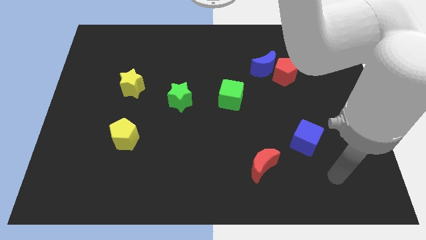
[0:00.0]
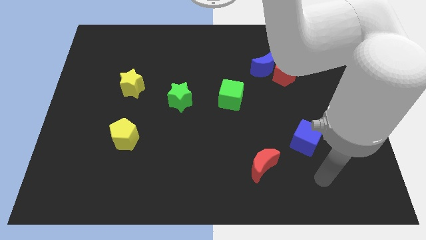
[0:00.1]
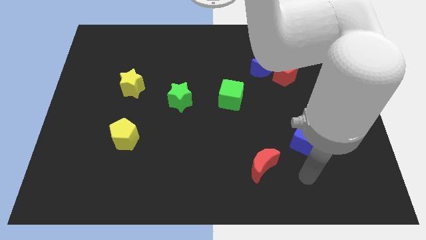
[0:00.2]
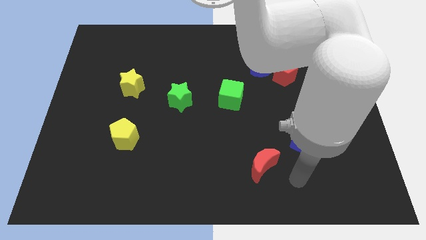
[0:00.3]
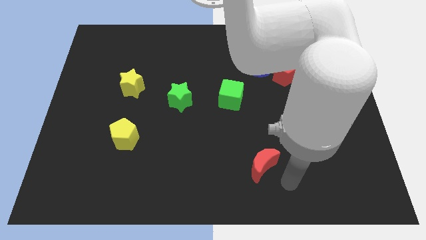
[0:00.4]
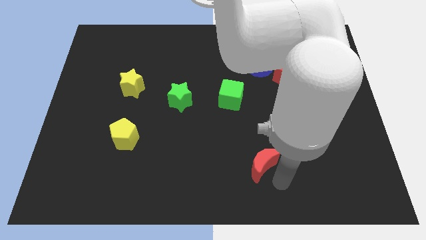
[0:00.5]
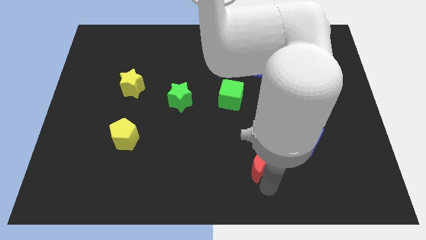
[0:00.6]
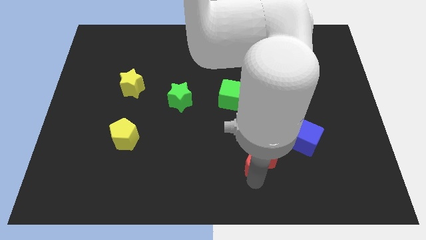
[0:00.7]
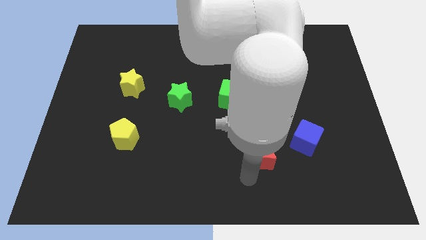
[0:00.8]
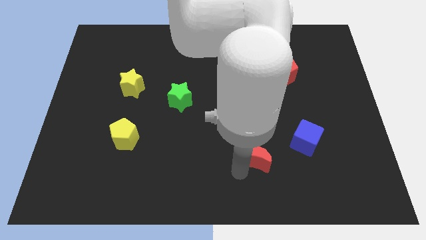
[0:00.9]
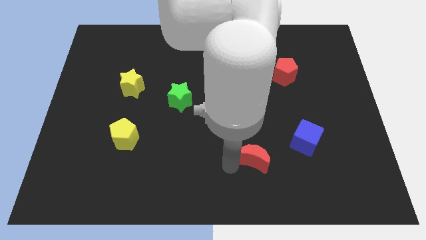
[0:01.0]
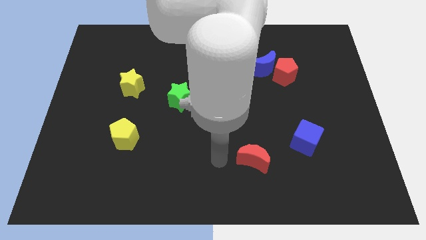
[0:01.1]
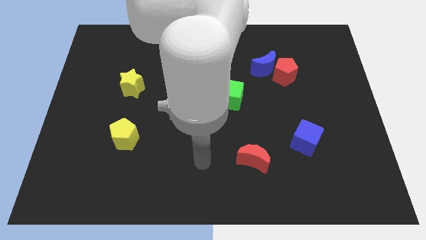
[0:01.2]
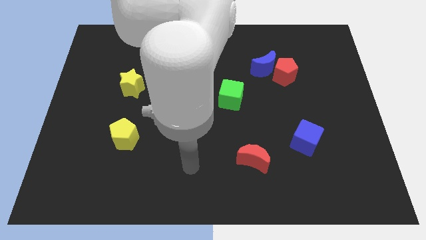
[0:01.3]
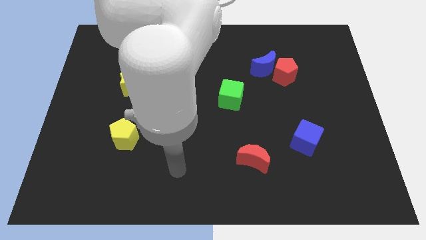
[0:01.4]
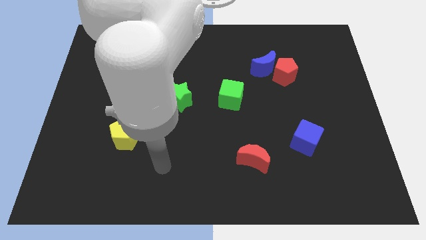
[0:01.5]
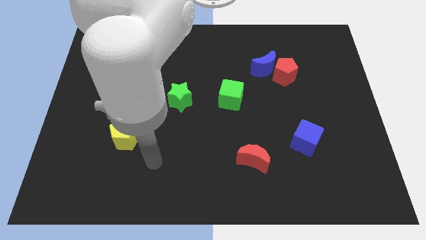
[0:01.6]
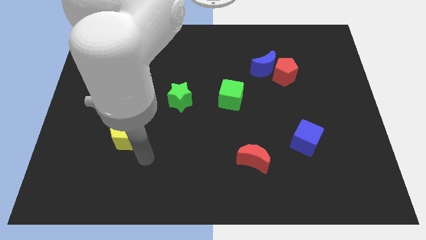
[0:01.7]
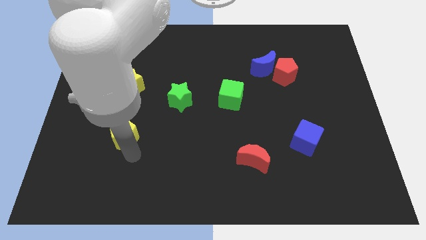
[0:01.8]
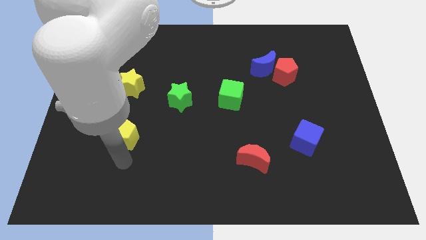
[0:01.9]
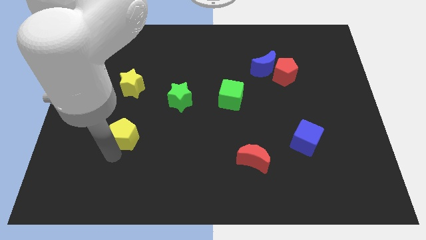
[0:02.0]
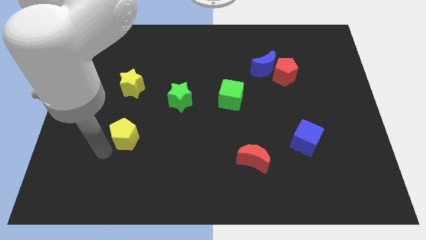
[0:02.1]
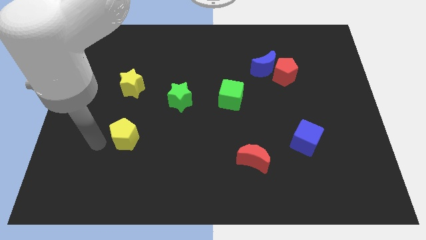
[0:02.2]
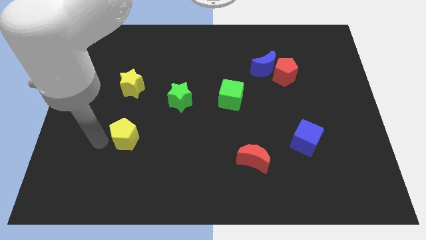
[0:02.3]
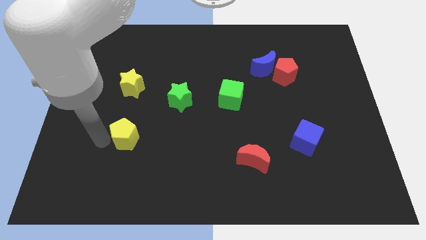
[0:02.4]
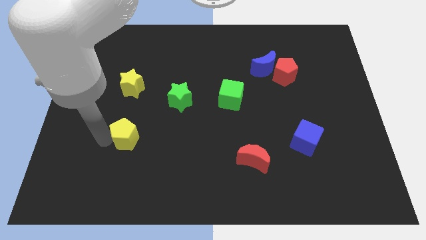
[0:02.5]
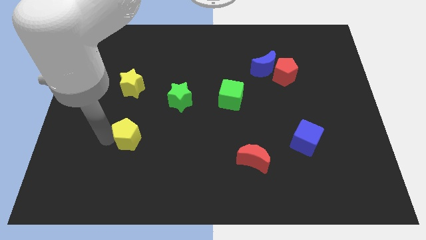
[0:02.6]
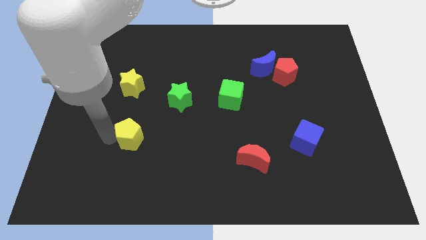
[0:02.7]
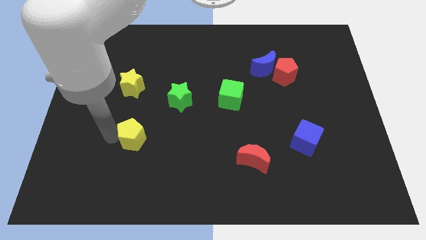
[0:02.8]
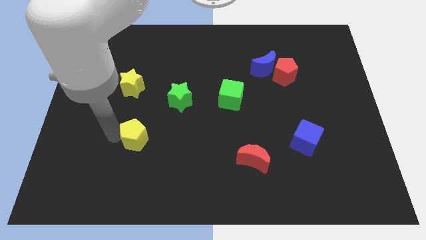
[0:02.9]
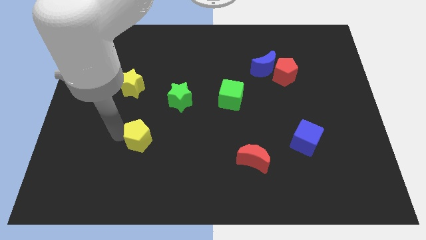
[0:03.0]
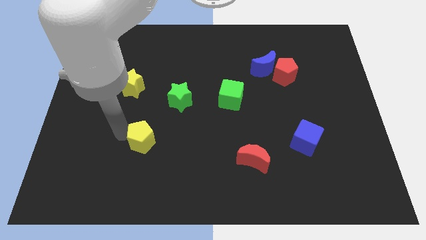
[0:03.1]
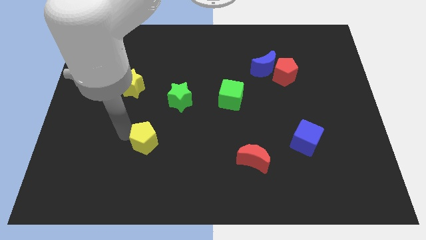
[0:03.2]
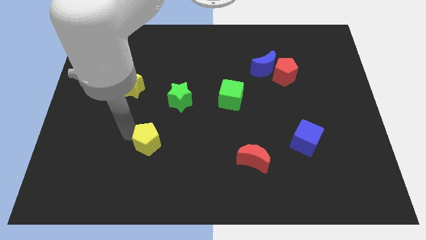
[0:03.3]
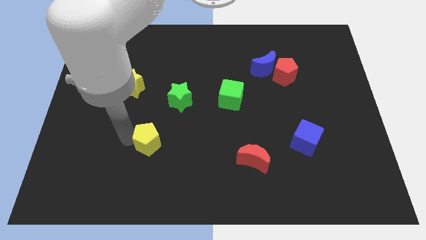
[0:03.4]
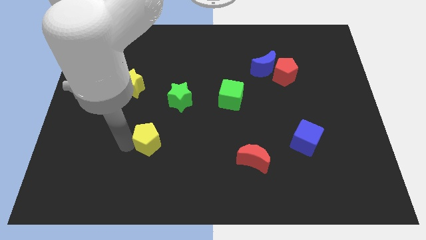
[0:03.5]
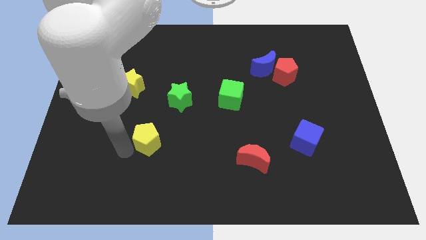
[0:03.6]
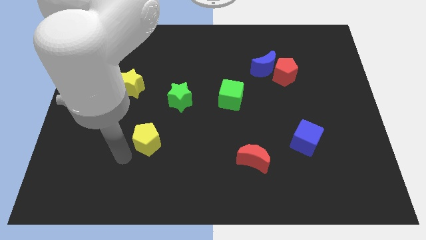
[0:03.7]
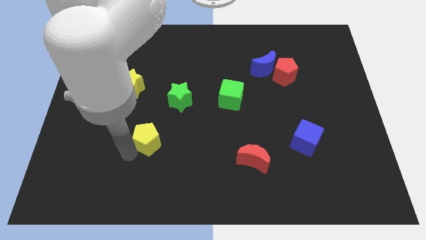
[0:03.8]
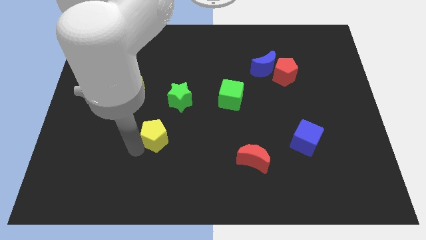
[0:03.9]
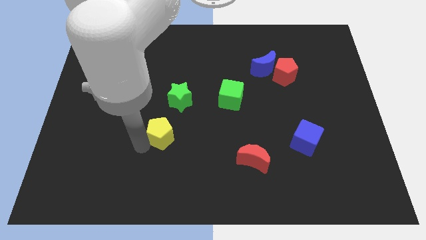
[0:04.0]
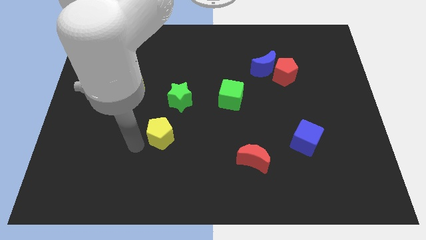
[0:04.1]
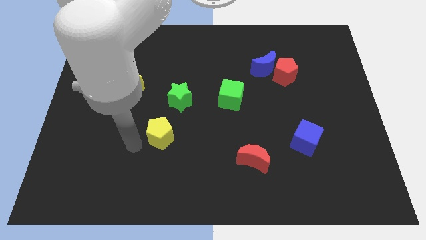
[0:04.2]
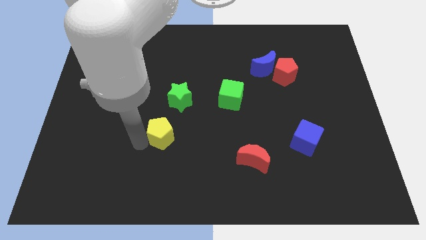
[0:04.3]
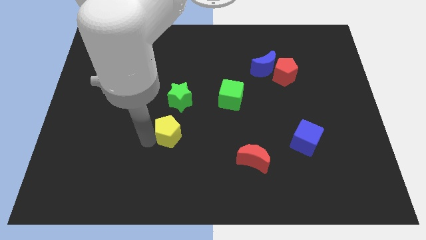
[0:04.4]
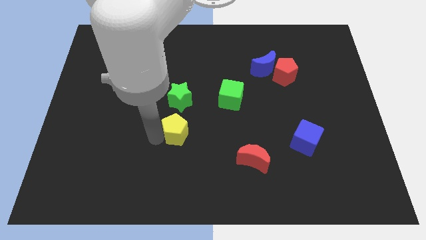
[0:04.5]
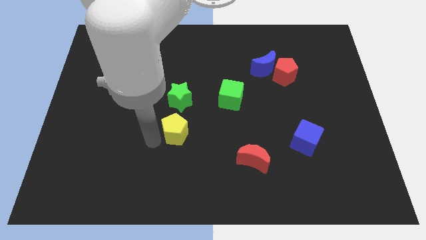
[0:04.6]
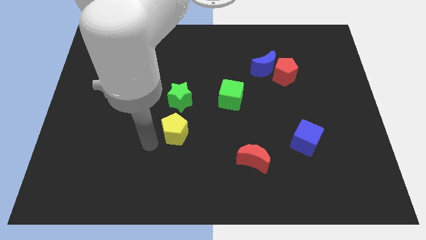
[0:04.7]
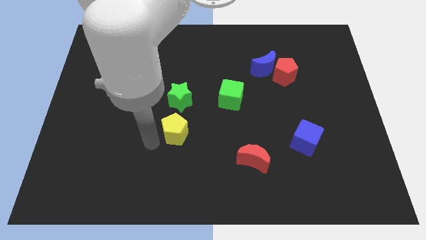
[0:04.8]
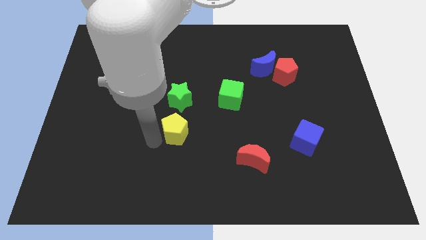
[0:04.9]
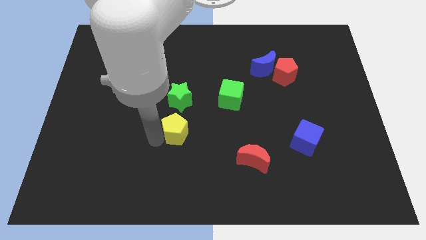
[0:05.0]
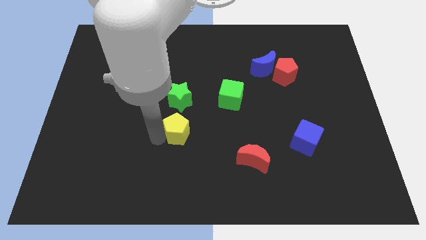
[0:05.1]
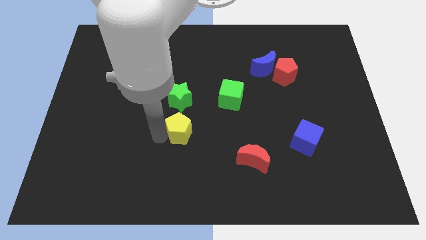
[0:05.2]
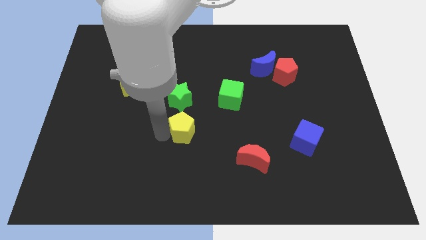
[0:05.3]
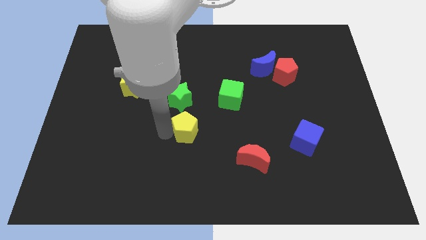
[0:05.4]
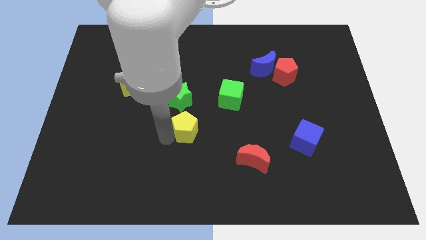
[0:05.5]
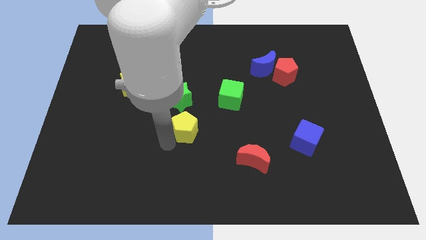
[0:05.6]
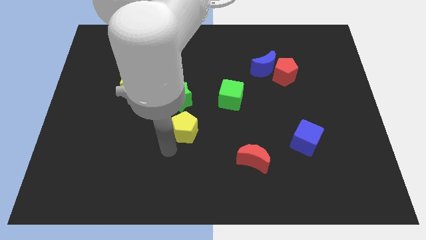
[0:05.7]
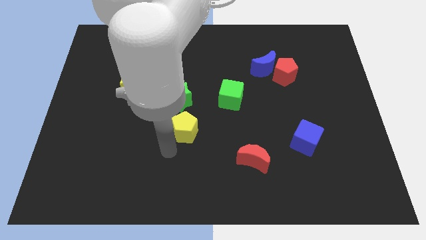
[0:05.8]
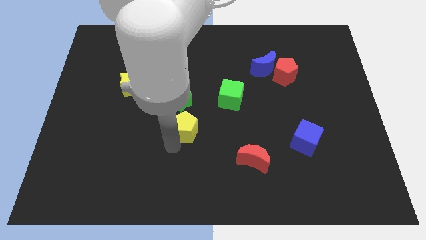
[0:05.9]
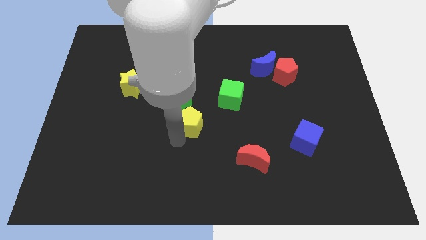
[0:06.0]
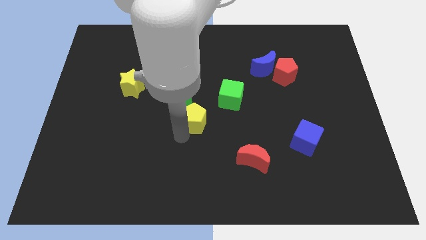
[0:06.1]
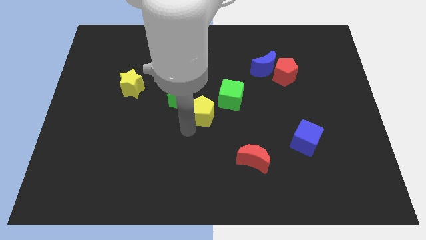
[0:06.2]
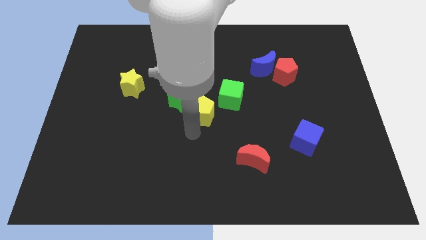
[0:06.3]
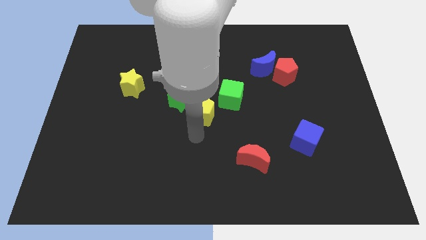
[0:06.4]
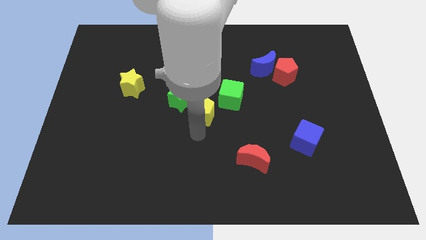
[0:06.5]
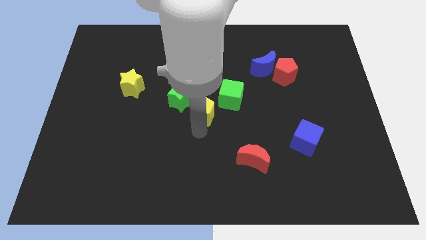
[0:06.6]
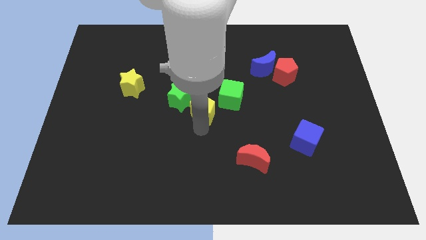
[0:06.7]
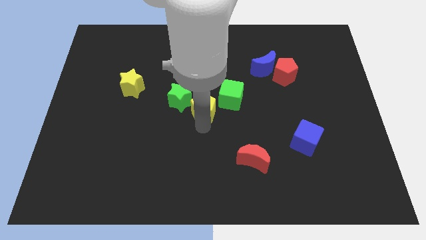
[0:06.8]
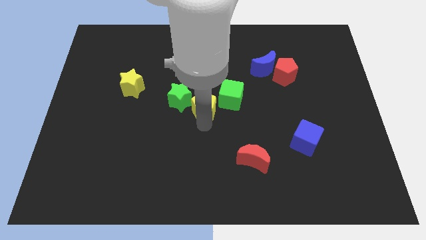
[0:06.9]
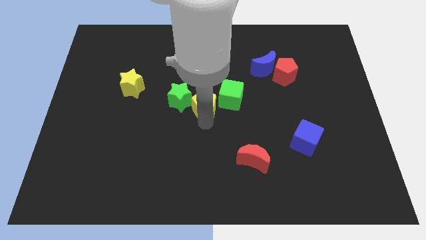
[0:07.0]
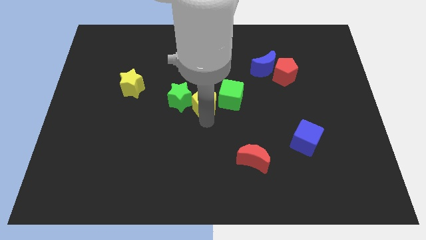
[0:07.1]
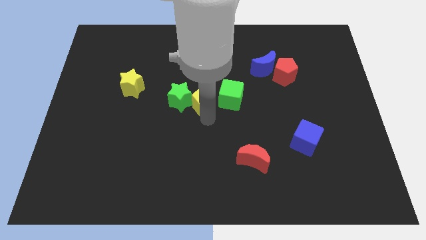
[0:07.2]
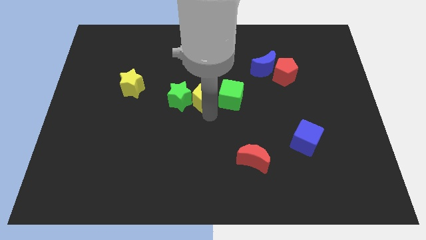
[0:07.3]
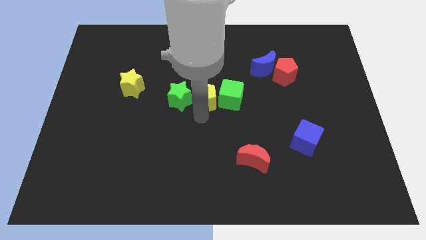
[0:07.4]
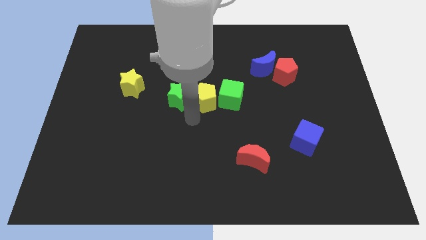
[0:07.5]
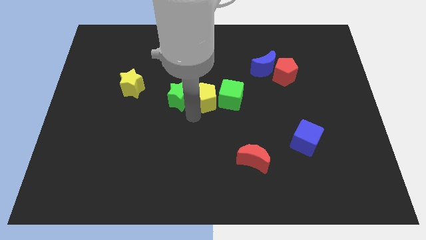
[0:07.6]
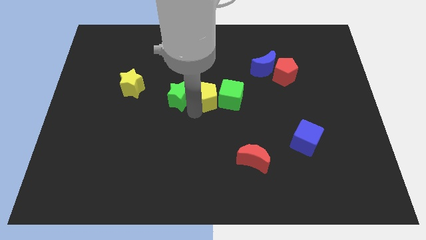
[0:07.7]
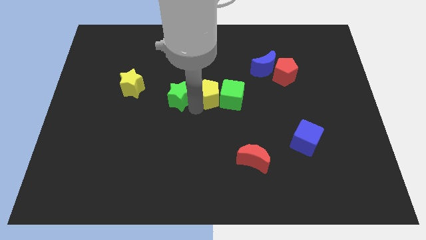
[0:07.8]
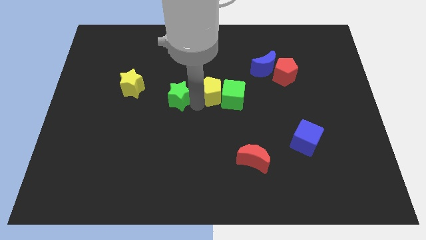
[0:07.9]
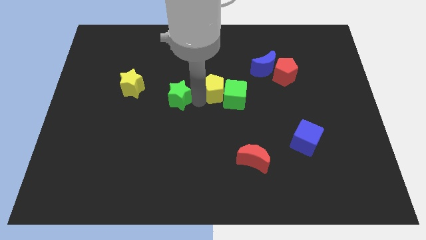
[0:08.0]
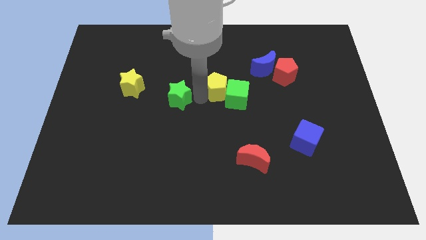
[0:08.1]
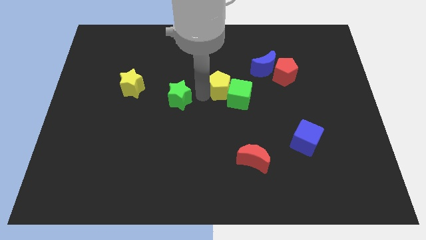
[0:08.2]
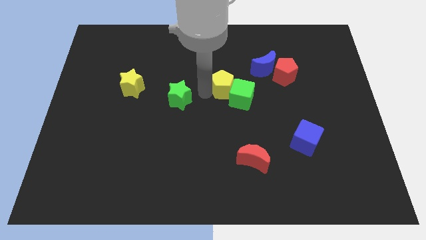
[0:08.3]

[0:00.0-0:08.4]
move the yellow pentagon above the green cube
